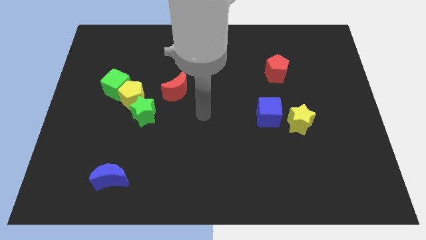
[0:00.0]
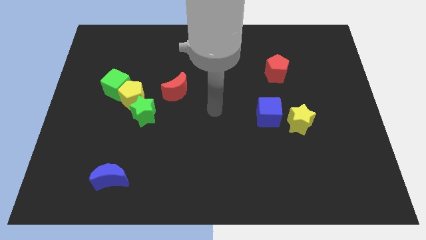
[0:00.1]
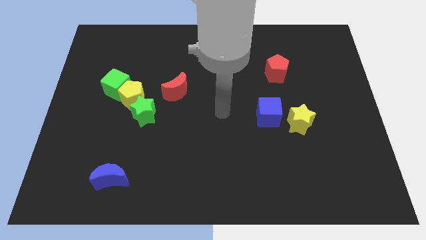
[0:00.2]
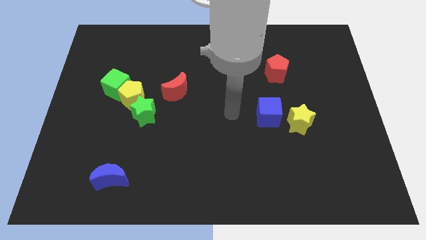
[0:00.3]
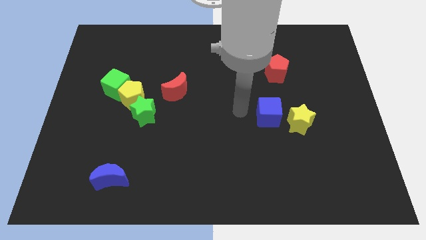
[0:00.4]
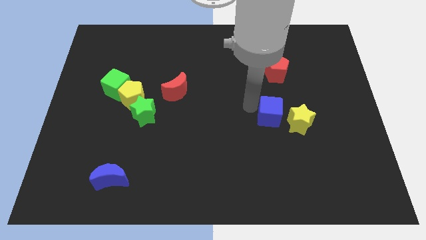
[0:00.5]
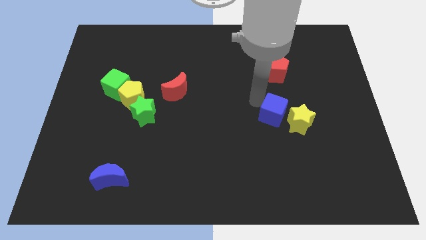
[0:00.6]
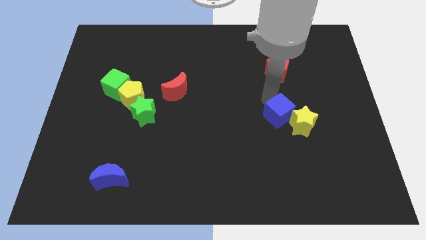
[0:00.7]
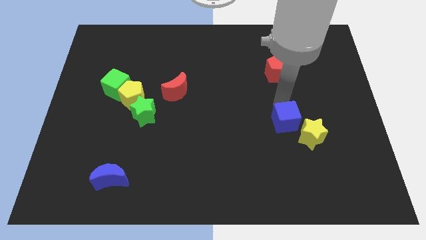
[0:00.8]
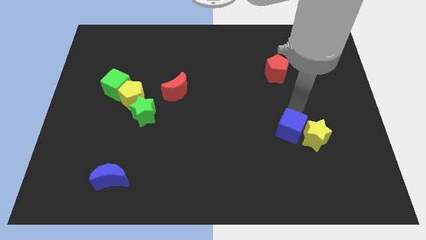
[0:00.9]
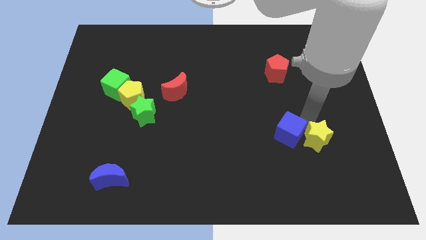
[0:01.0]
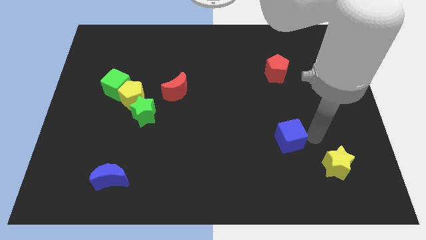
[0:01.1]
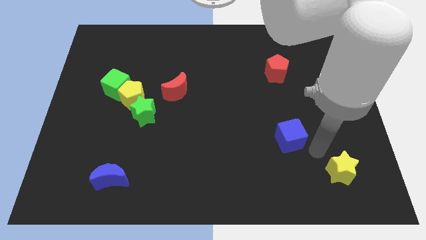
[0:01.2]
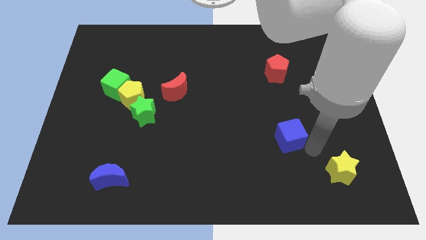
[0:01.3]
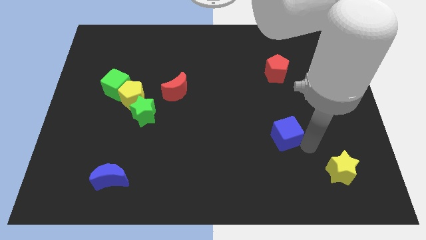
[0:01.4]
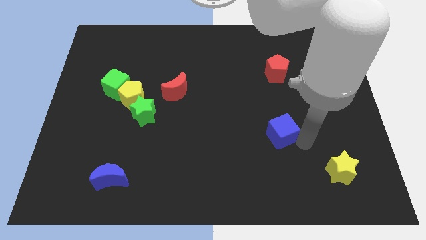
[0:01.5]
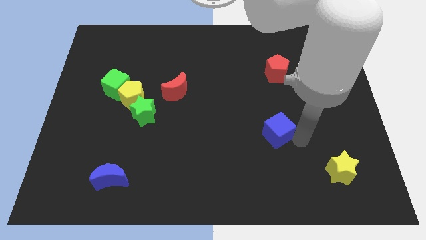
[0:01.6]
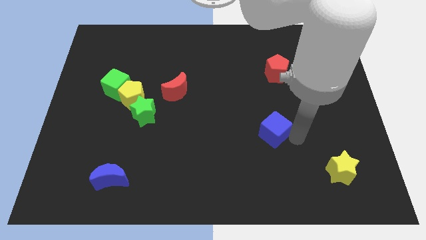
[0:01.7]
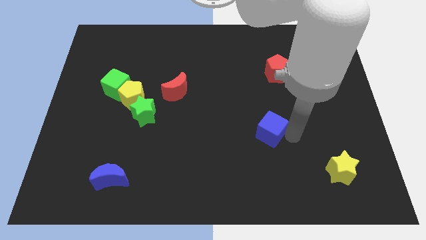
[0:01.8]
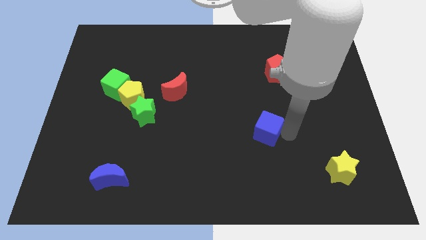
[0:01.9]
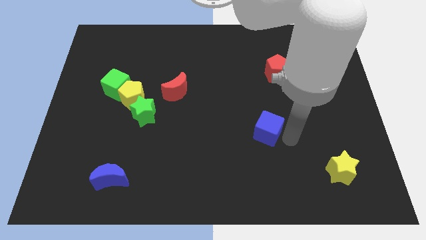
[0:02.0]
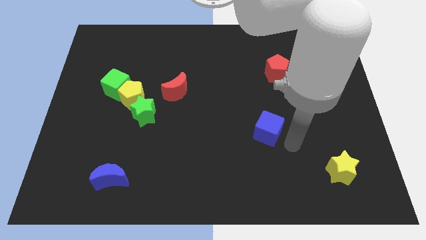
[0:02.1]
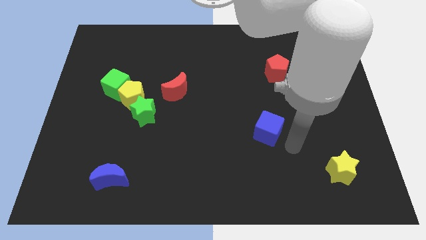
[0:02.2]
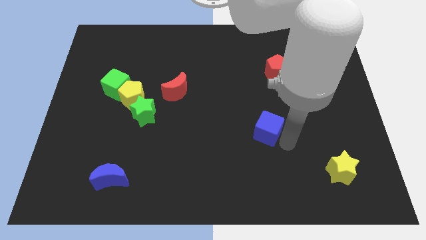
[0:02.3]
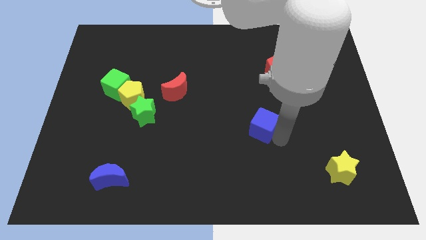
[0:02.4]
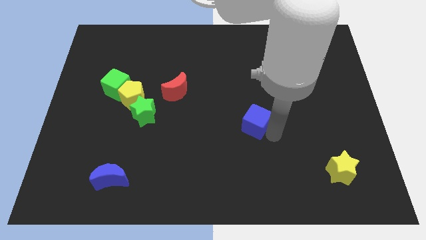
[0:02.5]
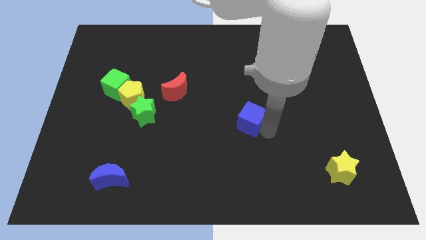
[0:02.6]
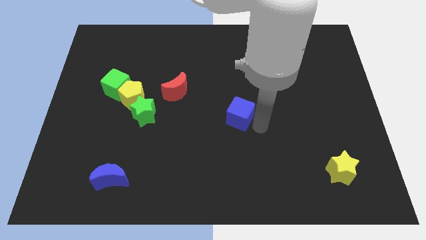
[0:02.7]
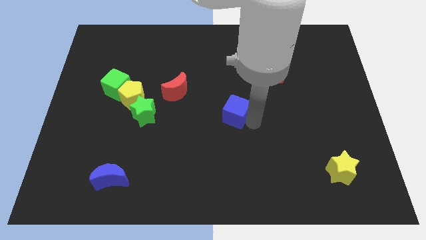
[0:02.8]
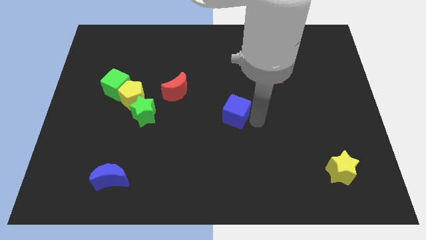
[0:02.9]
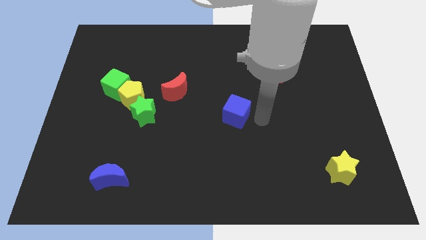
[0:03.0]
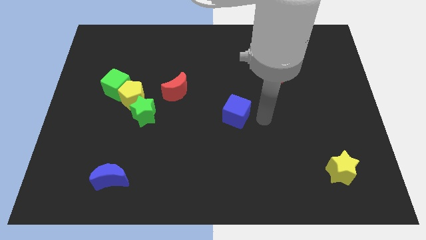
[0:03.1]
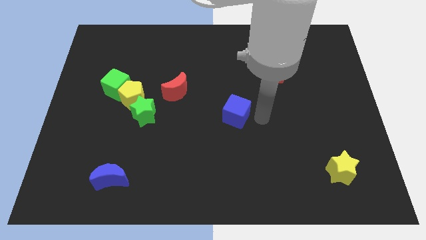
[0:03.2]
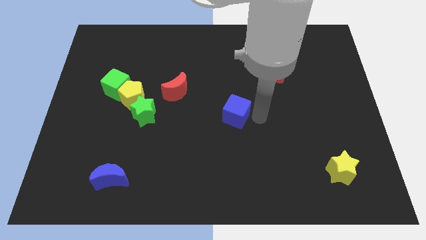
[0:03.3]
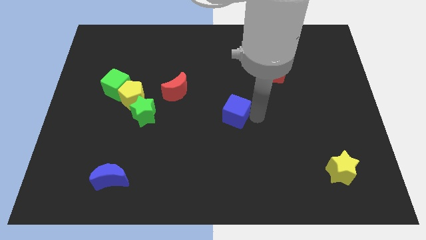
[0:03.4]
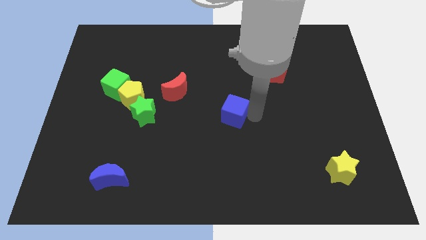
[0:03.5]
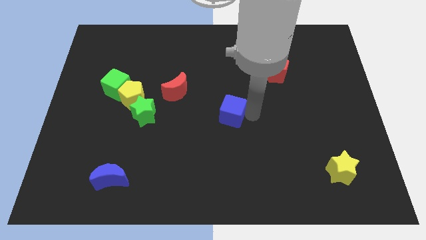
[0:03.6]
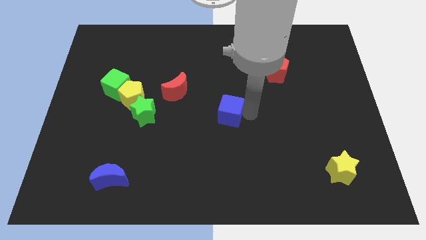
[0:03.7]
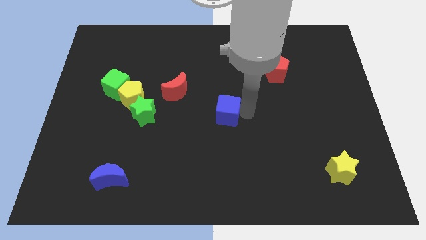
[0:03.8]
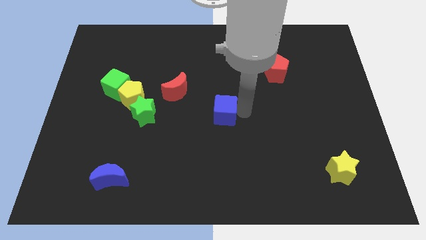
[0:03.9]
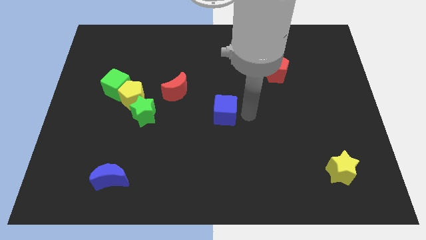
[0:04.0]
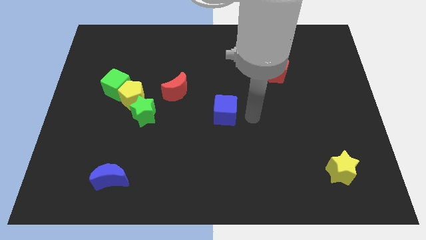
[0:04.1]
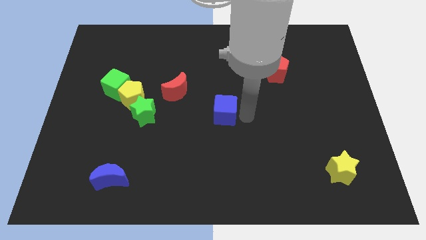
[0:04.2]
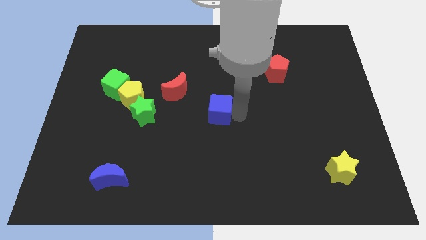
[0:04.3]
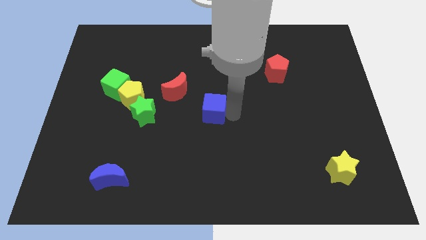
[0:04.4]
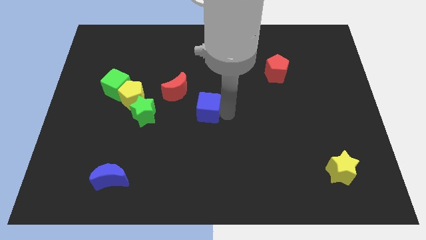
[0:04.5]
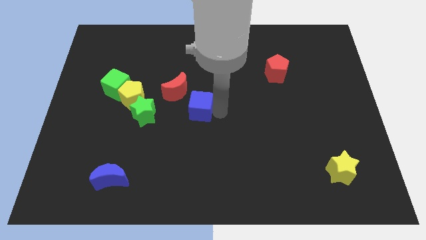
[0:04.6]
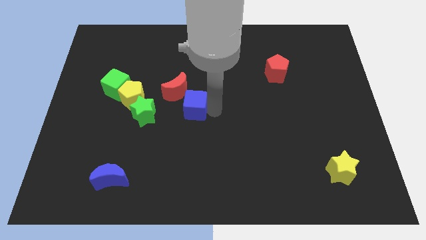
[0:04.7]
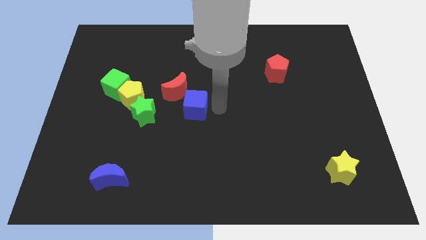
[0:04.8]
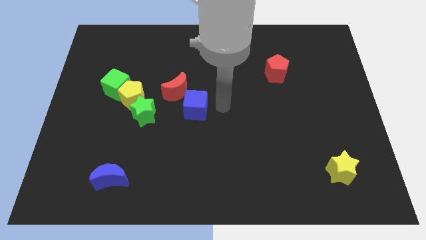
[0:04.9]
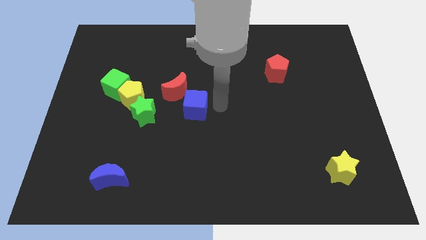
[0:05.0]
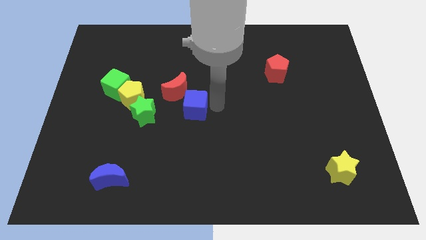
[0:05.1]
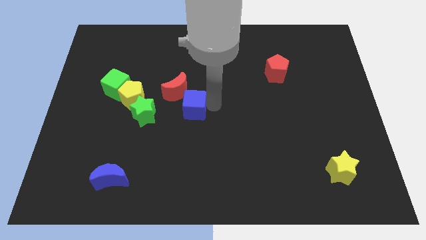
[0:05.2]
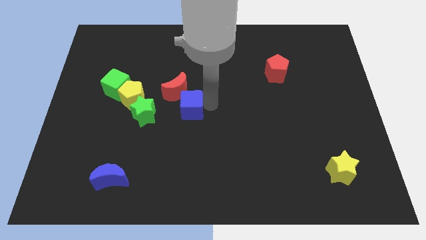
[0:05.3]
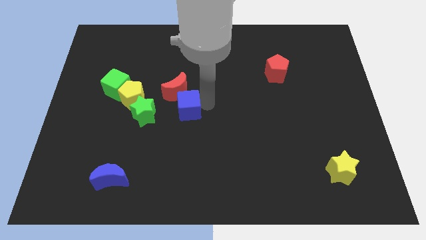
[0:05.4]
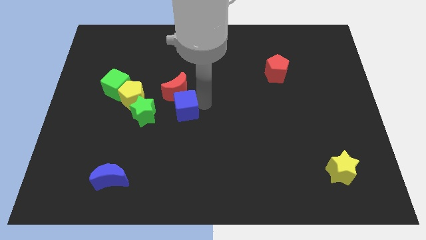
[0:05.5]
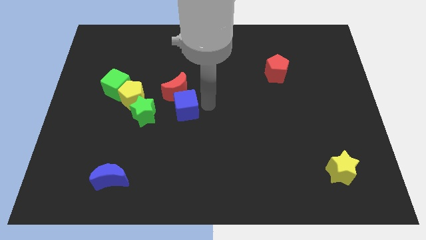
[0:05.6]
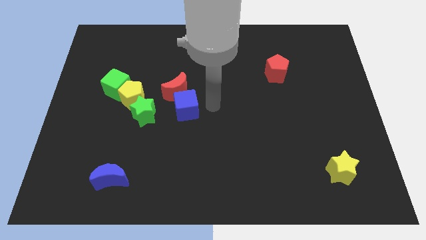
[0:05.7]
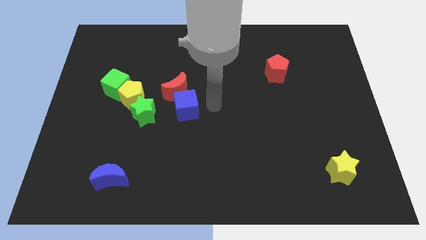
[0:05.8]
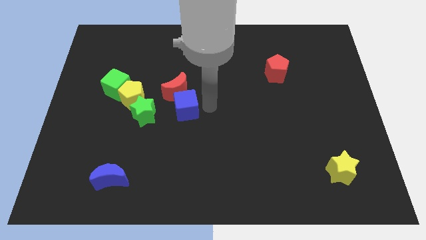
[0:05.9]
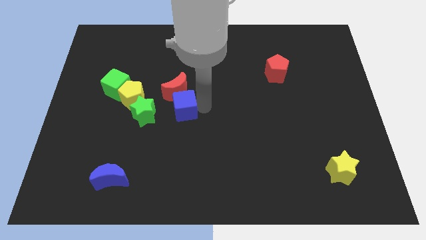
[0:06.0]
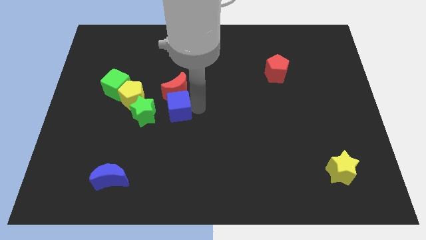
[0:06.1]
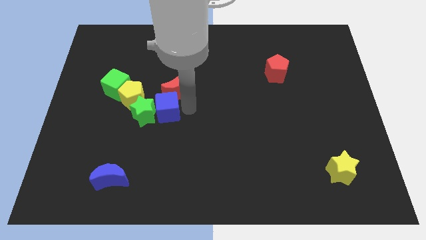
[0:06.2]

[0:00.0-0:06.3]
put the blue cube towards the green star
